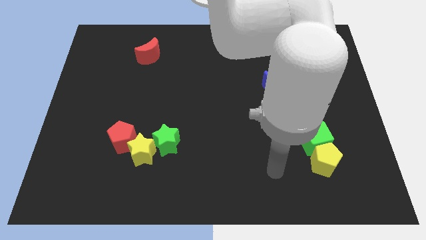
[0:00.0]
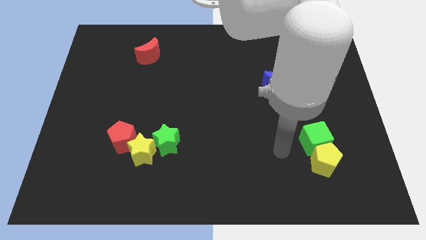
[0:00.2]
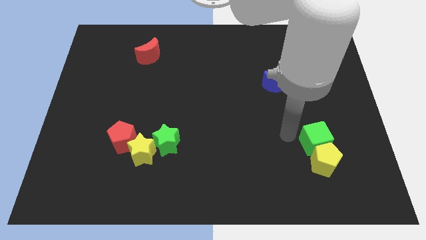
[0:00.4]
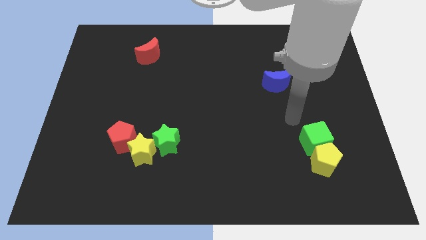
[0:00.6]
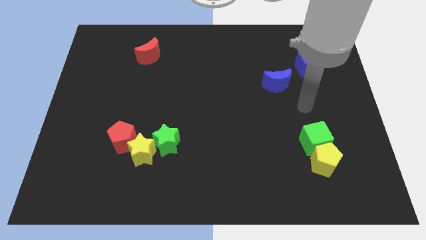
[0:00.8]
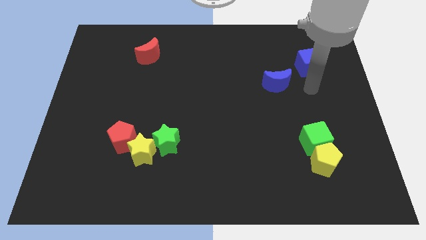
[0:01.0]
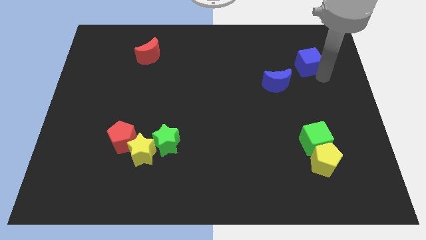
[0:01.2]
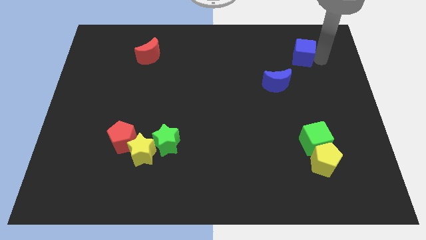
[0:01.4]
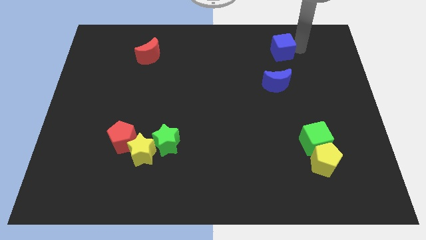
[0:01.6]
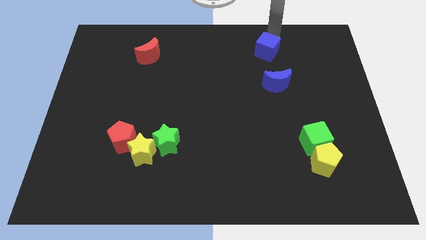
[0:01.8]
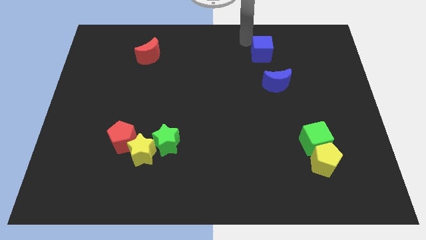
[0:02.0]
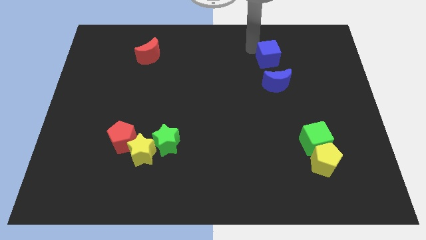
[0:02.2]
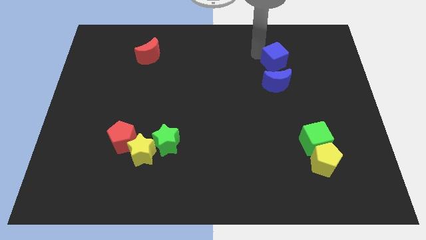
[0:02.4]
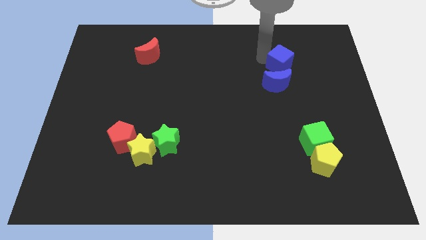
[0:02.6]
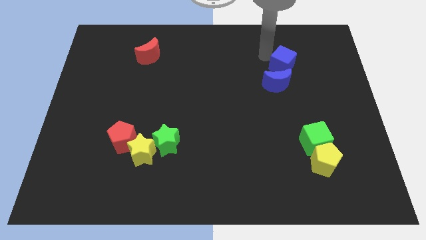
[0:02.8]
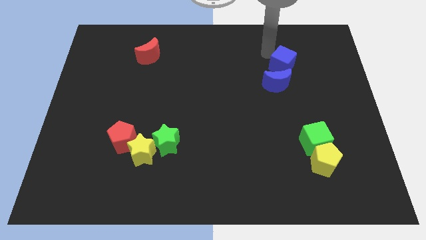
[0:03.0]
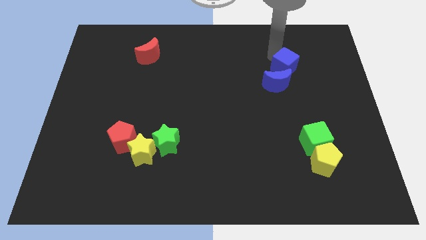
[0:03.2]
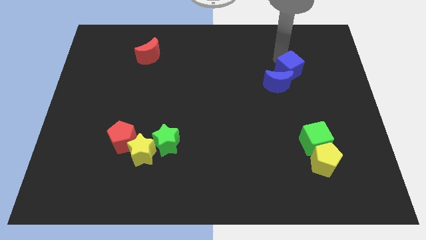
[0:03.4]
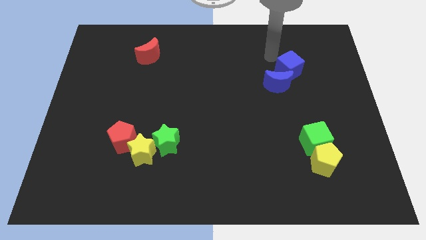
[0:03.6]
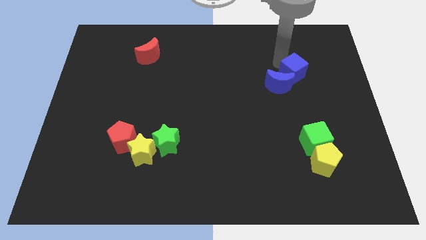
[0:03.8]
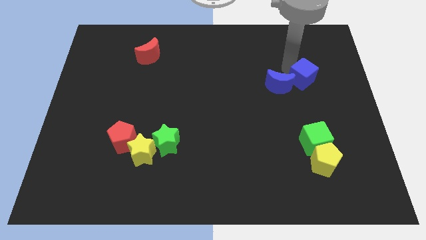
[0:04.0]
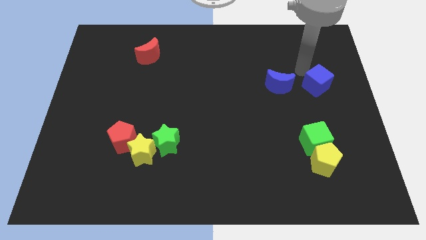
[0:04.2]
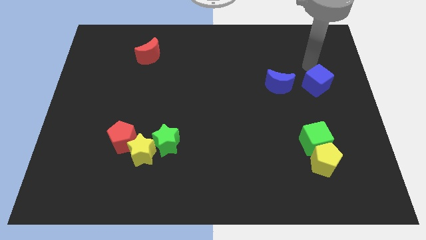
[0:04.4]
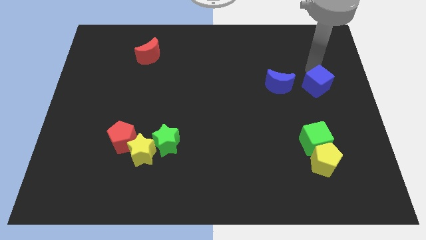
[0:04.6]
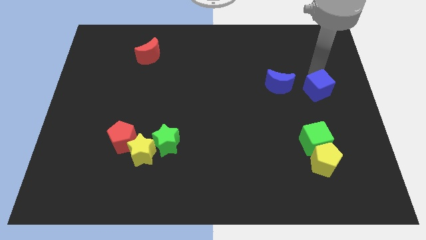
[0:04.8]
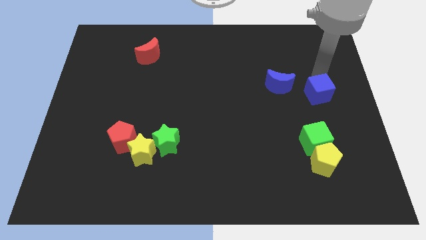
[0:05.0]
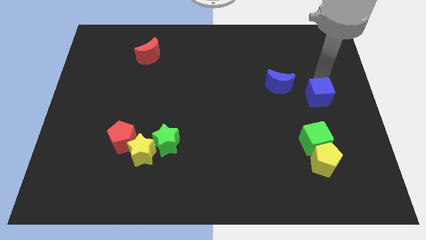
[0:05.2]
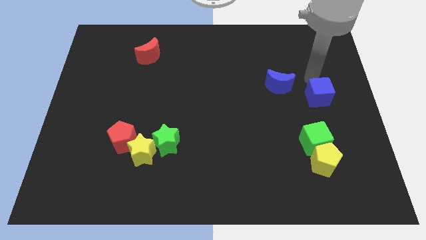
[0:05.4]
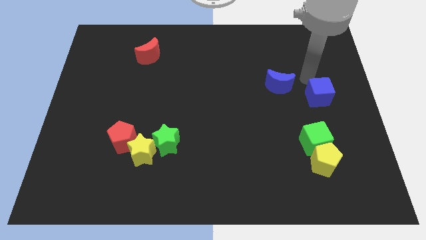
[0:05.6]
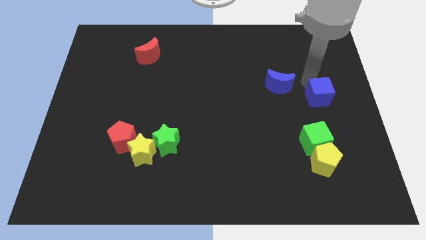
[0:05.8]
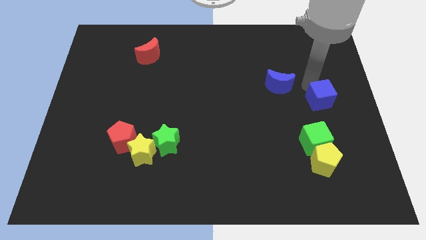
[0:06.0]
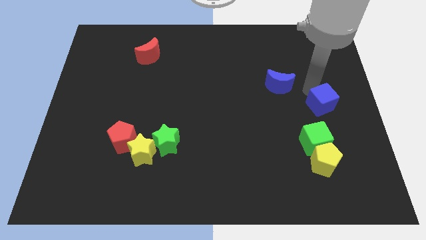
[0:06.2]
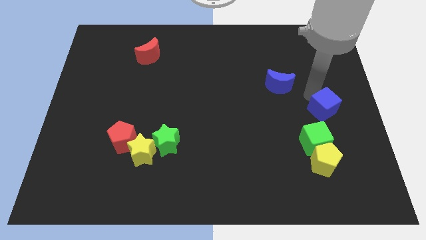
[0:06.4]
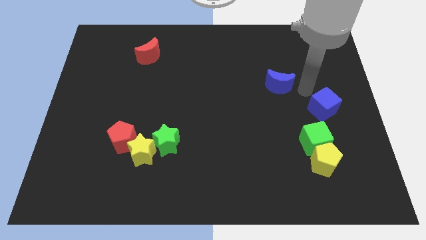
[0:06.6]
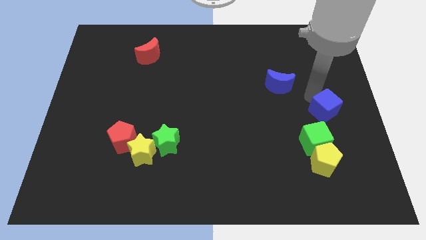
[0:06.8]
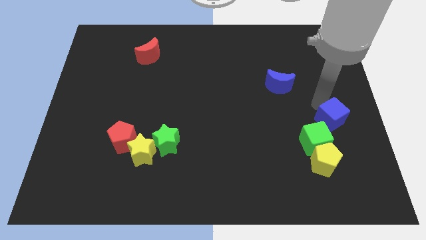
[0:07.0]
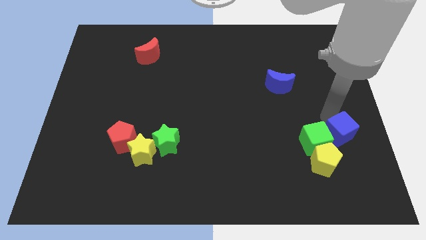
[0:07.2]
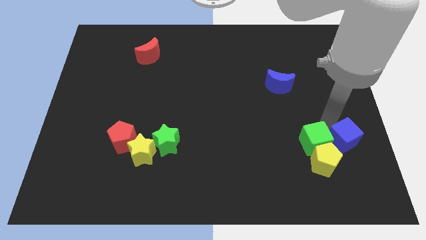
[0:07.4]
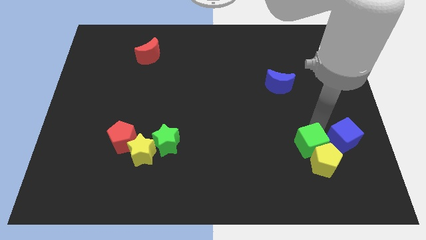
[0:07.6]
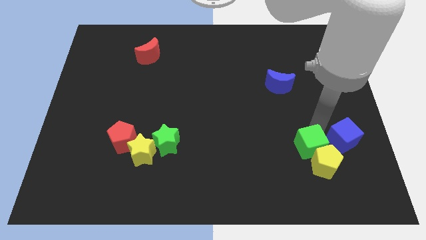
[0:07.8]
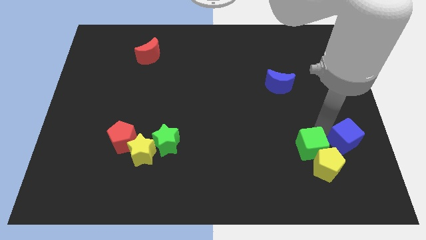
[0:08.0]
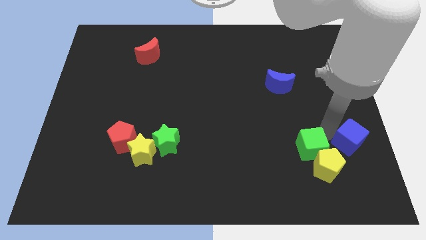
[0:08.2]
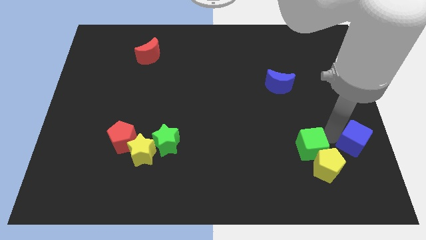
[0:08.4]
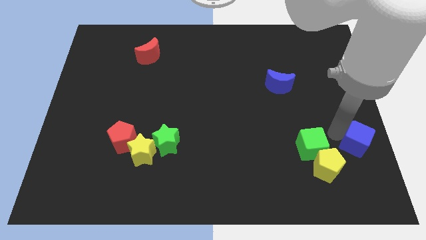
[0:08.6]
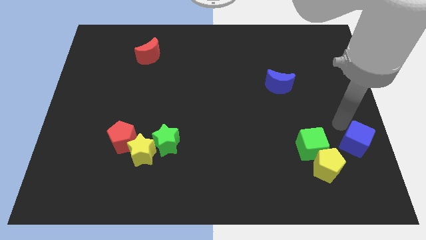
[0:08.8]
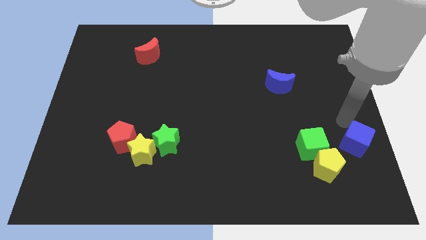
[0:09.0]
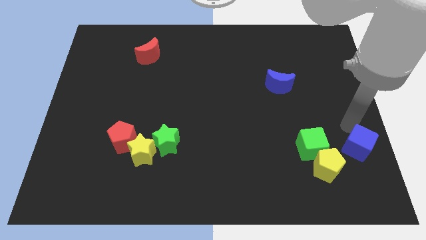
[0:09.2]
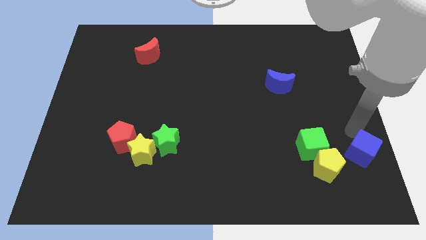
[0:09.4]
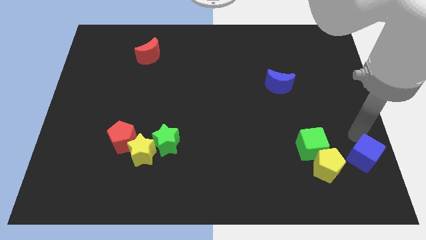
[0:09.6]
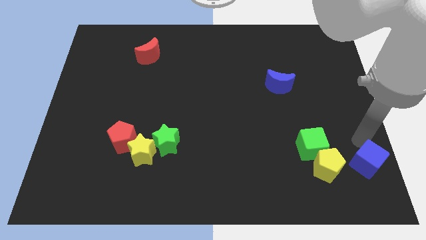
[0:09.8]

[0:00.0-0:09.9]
slide the blue cube to the lower right corner

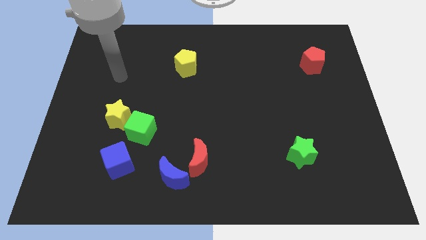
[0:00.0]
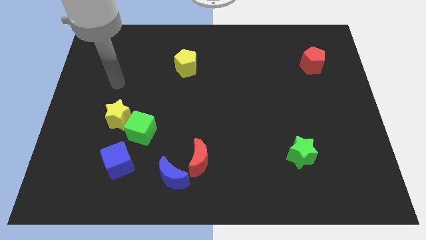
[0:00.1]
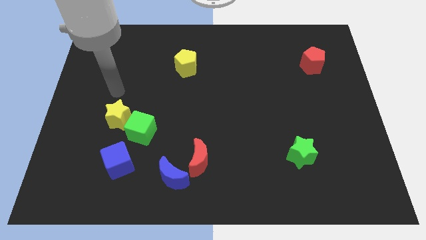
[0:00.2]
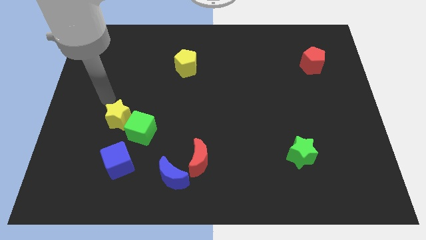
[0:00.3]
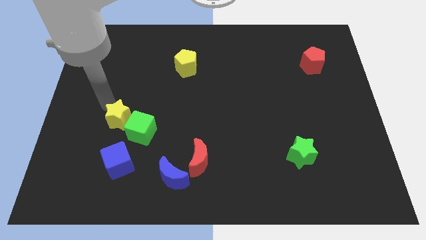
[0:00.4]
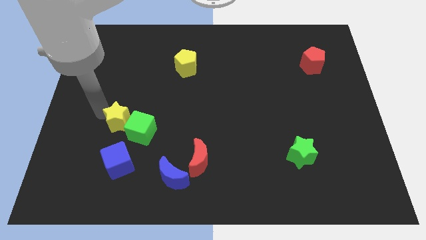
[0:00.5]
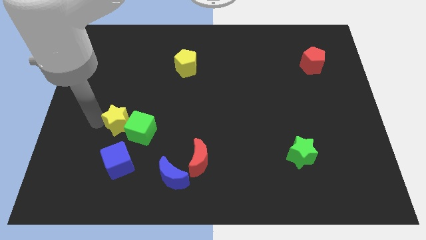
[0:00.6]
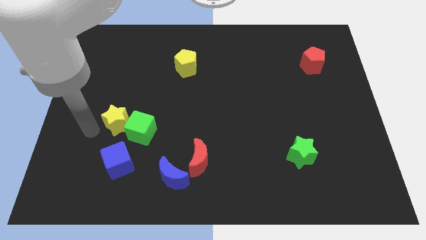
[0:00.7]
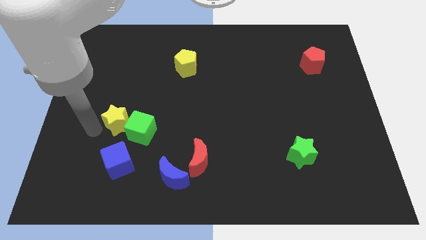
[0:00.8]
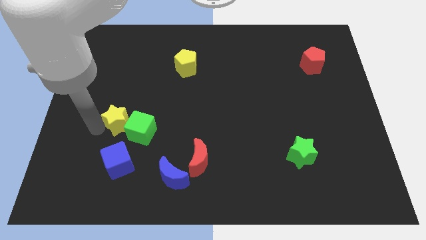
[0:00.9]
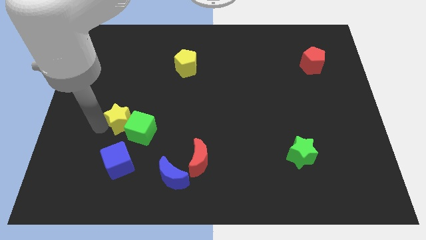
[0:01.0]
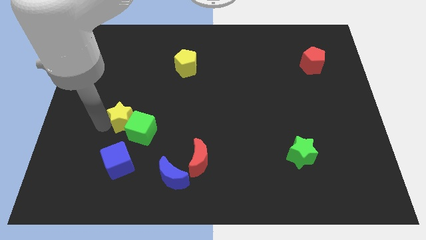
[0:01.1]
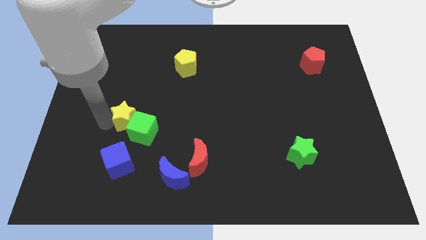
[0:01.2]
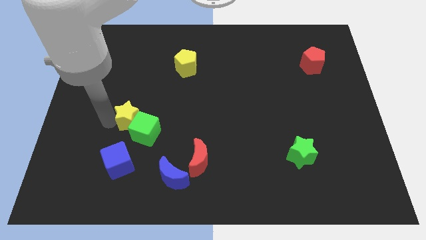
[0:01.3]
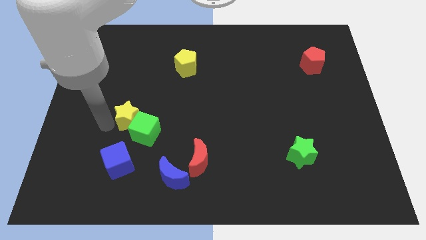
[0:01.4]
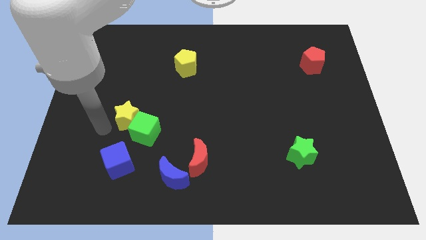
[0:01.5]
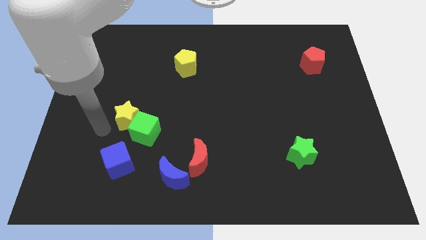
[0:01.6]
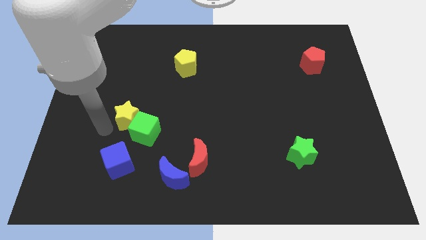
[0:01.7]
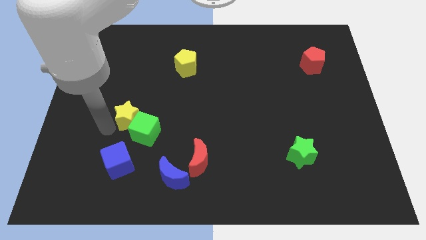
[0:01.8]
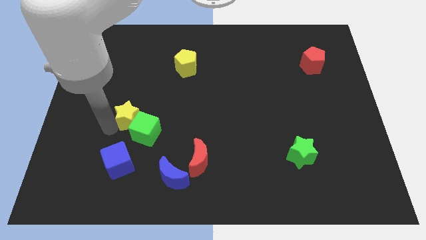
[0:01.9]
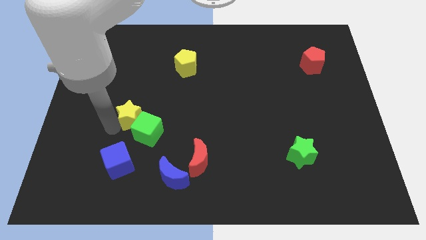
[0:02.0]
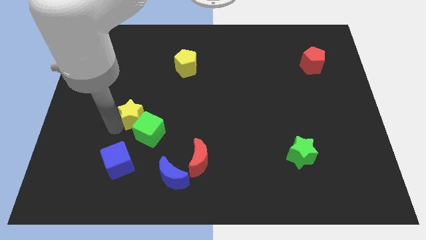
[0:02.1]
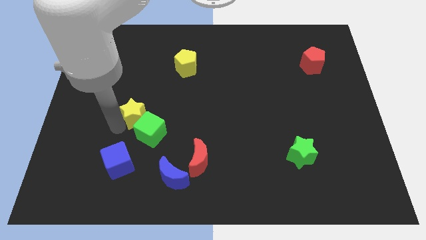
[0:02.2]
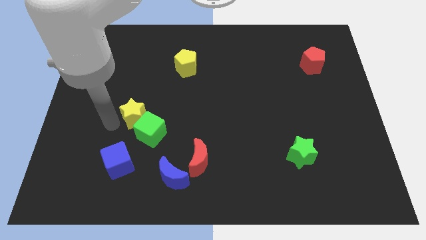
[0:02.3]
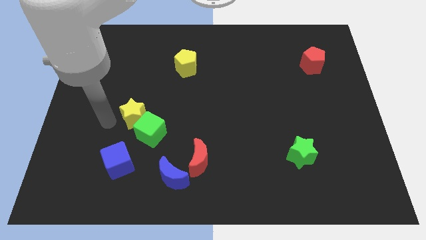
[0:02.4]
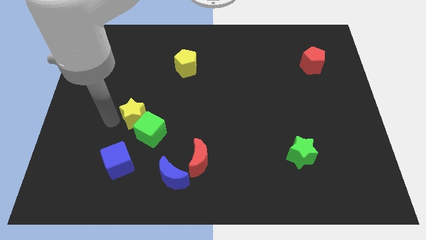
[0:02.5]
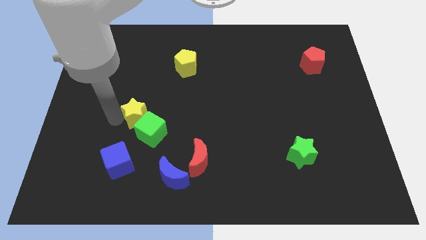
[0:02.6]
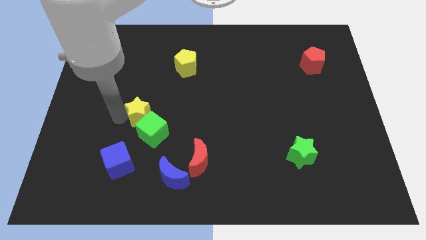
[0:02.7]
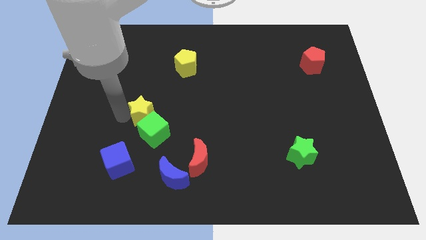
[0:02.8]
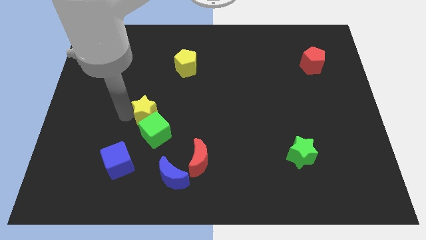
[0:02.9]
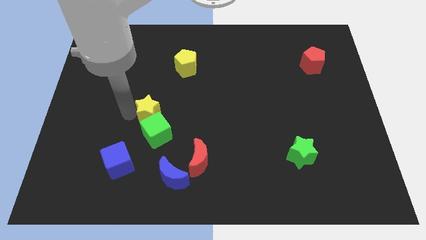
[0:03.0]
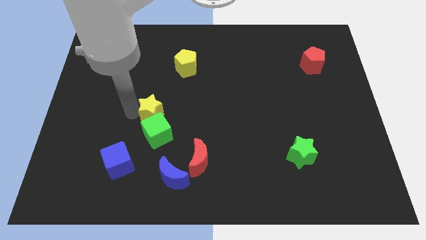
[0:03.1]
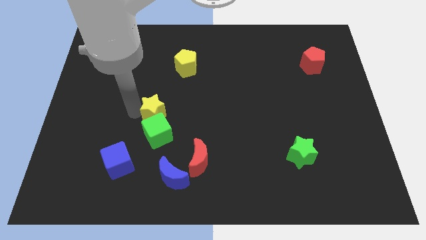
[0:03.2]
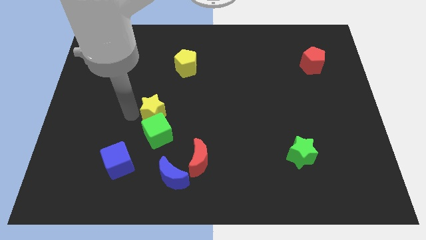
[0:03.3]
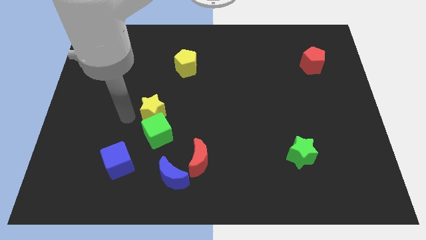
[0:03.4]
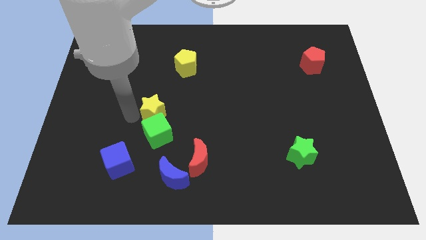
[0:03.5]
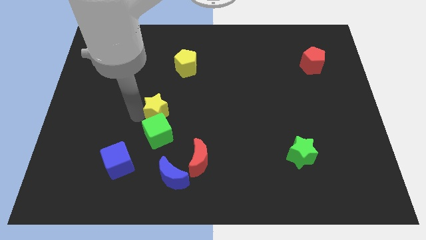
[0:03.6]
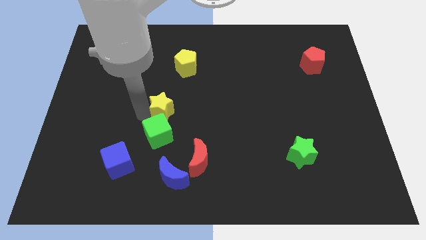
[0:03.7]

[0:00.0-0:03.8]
slide the yellow star to the middle
